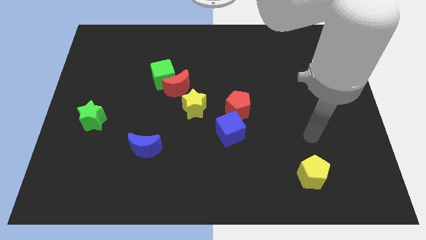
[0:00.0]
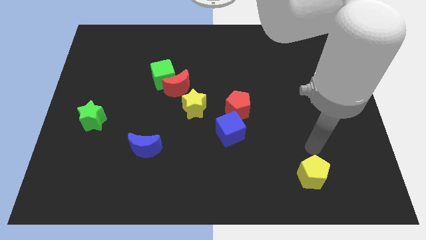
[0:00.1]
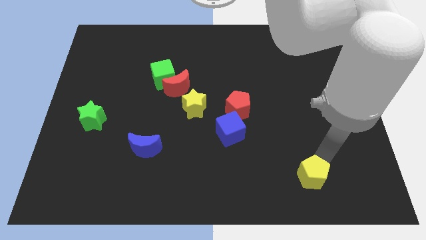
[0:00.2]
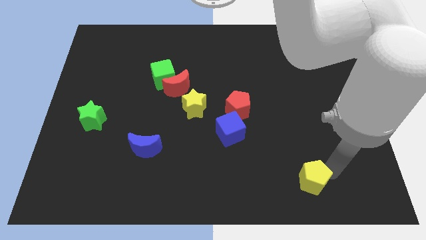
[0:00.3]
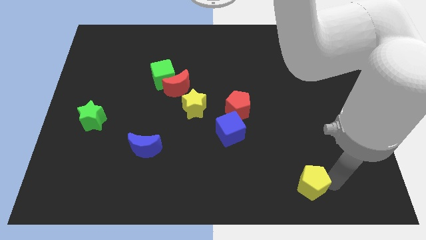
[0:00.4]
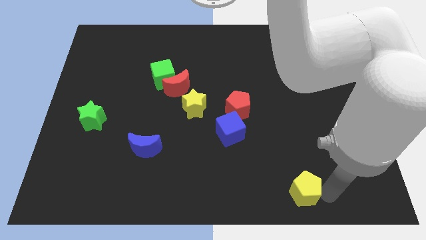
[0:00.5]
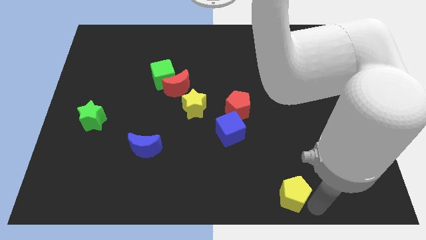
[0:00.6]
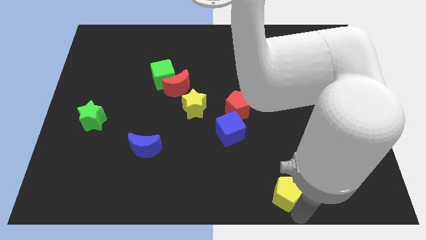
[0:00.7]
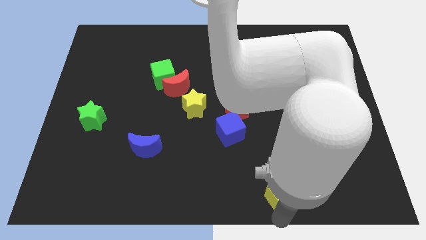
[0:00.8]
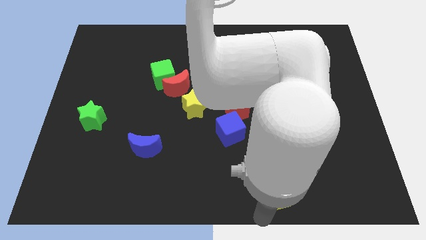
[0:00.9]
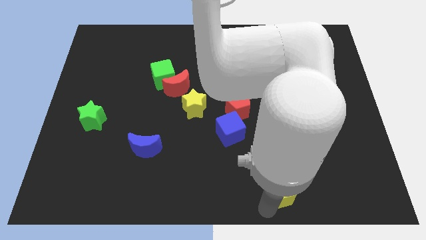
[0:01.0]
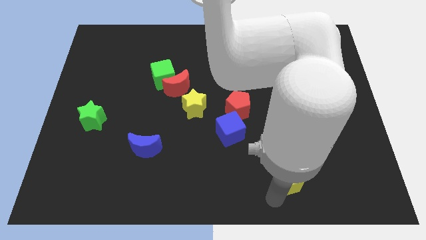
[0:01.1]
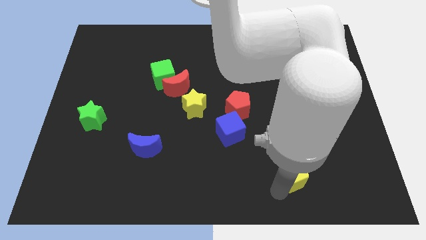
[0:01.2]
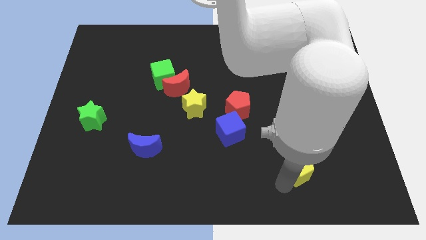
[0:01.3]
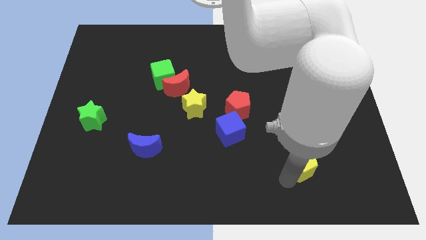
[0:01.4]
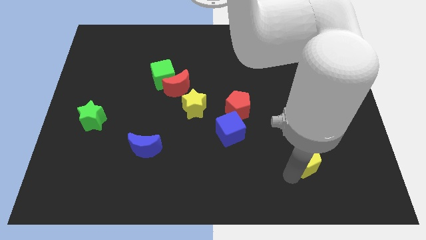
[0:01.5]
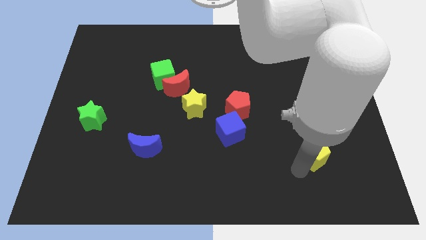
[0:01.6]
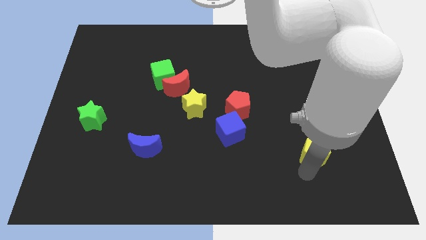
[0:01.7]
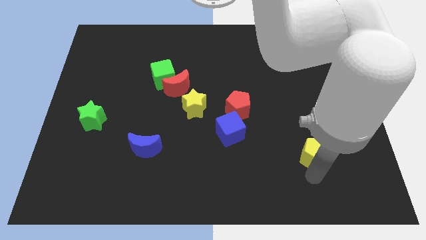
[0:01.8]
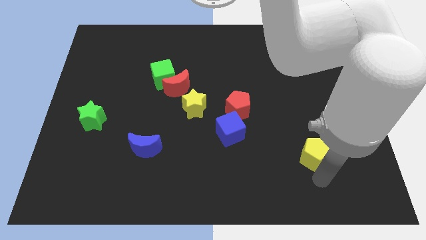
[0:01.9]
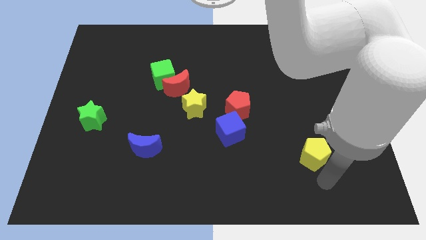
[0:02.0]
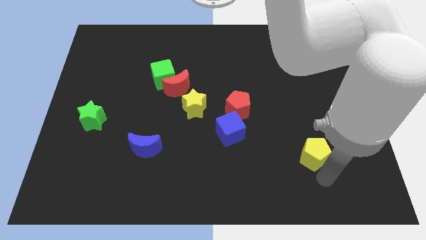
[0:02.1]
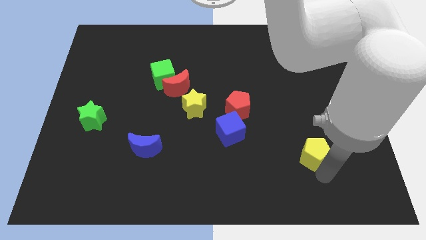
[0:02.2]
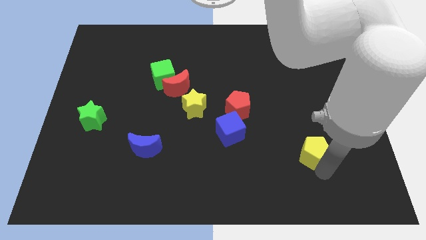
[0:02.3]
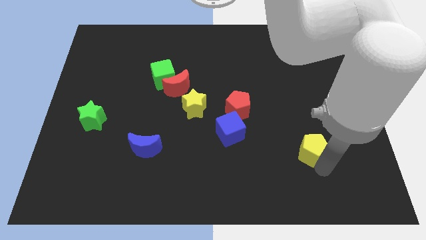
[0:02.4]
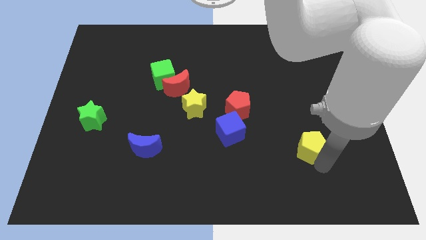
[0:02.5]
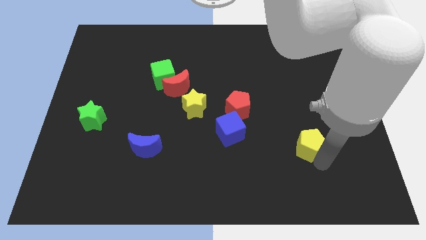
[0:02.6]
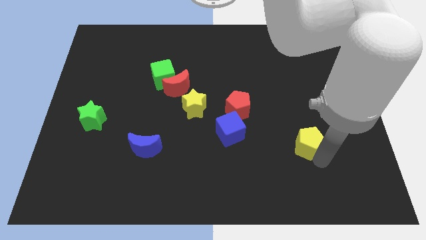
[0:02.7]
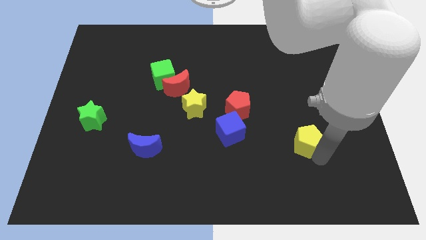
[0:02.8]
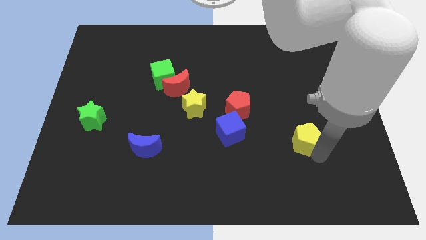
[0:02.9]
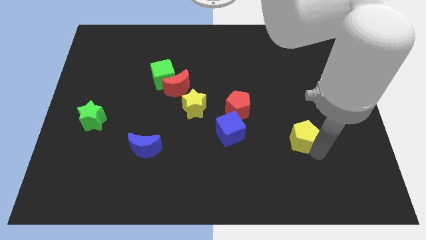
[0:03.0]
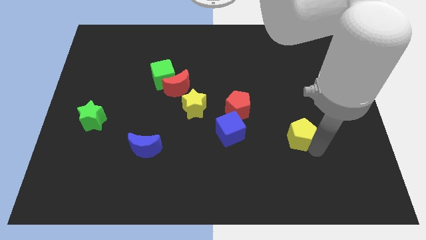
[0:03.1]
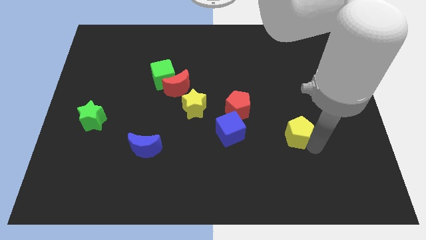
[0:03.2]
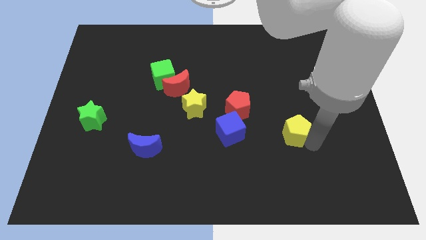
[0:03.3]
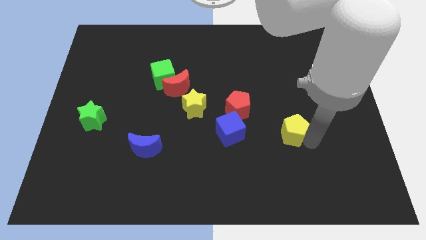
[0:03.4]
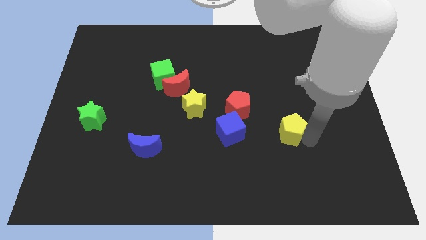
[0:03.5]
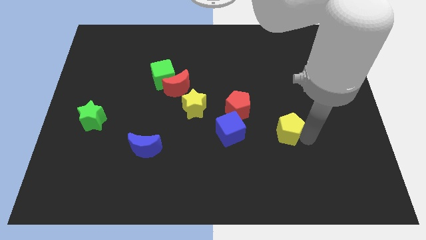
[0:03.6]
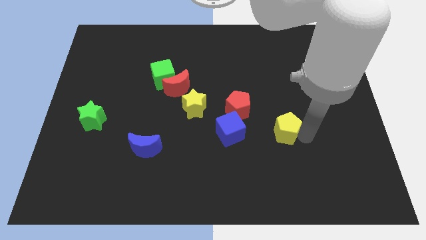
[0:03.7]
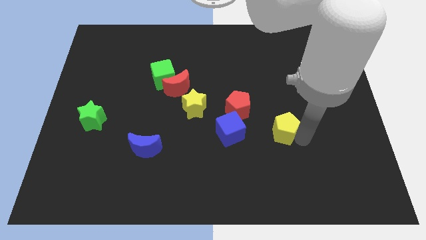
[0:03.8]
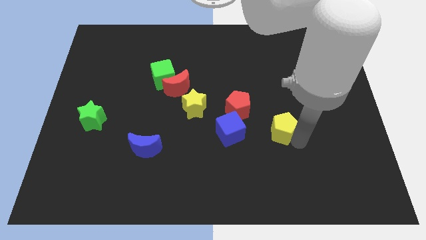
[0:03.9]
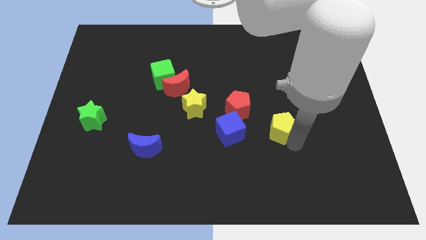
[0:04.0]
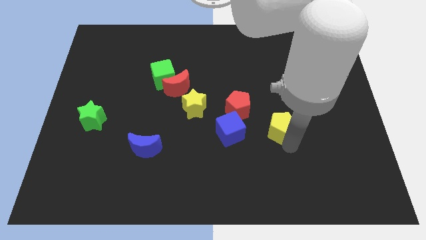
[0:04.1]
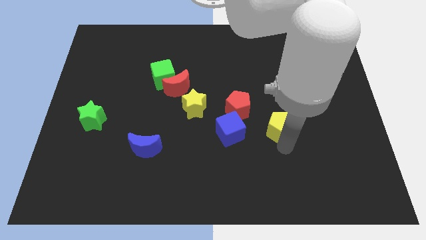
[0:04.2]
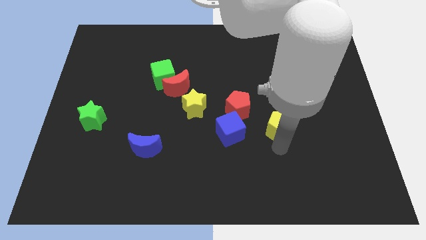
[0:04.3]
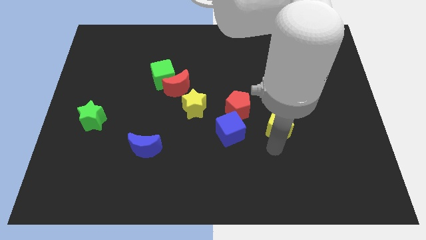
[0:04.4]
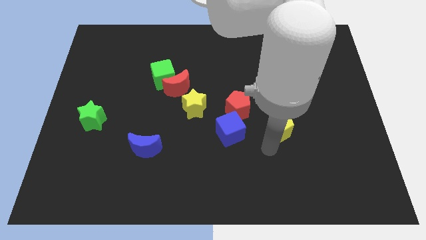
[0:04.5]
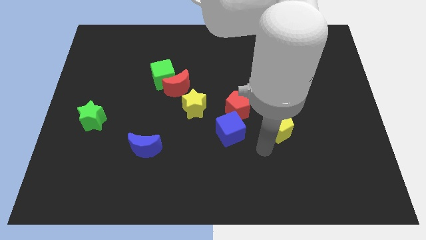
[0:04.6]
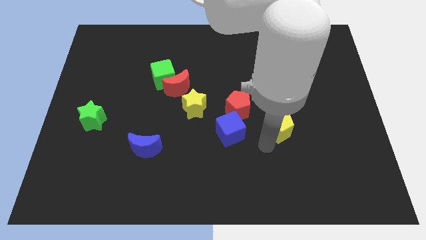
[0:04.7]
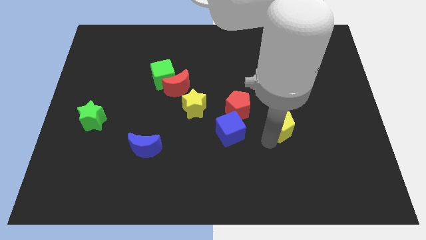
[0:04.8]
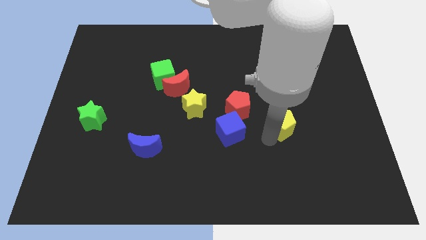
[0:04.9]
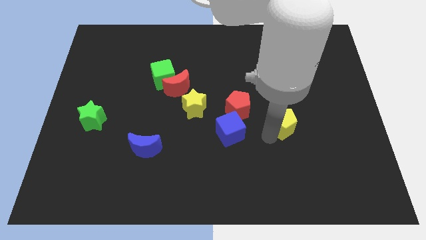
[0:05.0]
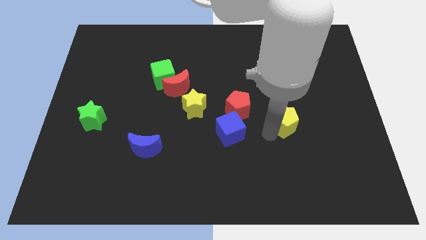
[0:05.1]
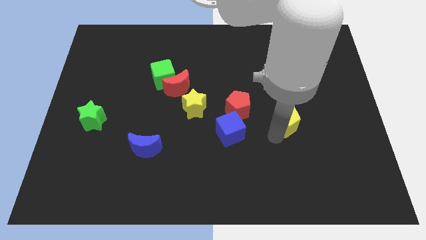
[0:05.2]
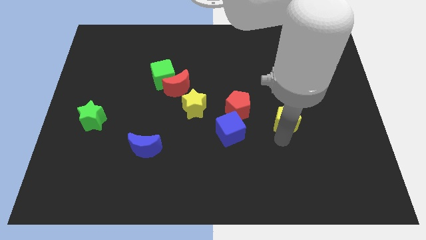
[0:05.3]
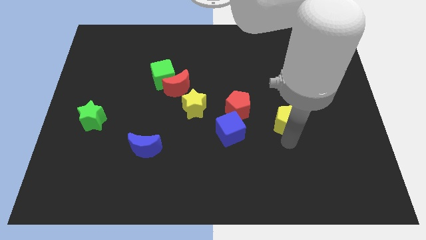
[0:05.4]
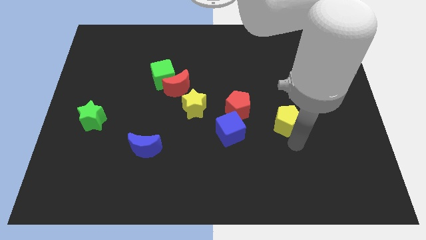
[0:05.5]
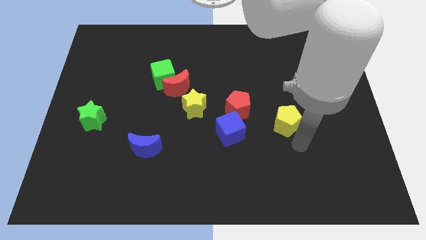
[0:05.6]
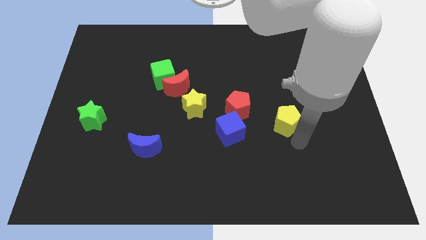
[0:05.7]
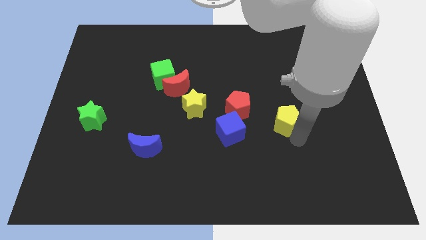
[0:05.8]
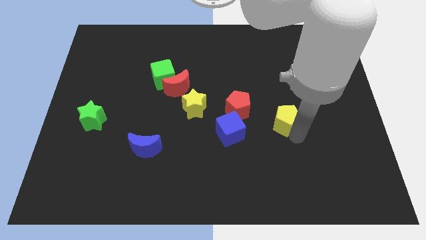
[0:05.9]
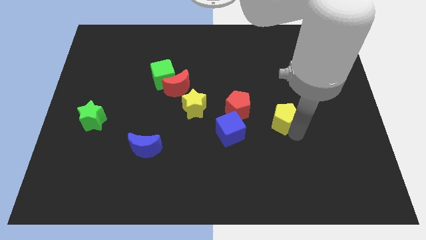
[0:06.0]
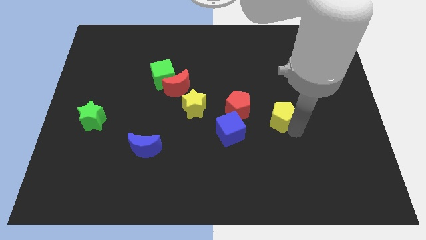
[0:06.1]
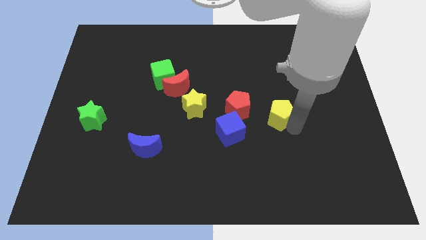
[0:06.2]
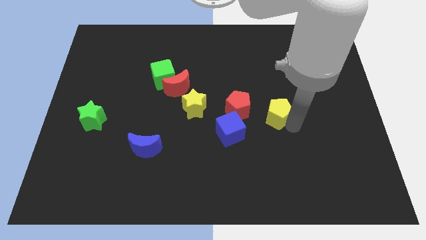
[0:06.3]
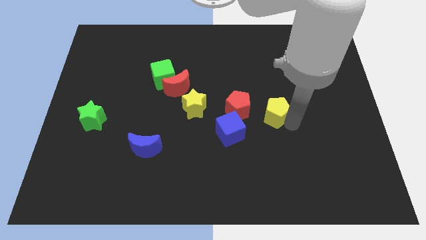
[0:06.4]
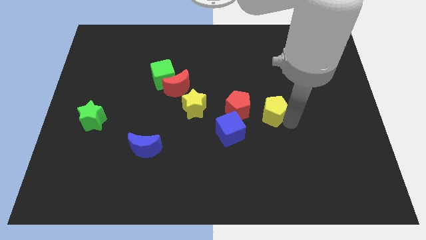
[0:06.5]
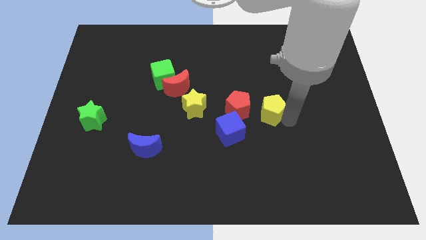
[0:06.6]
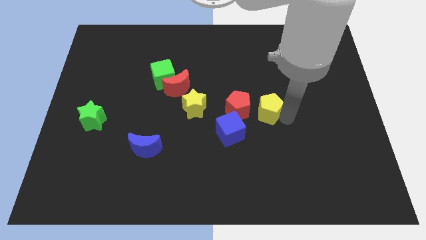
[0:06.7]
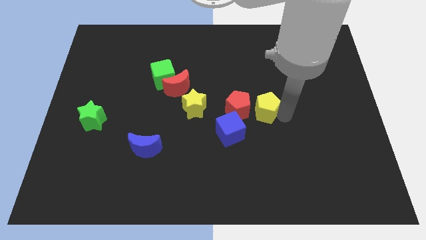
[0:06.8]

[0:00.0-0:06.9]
move the yellow pentagon to the top right side of the red pentagon
